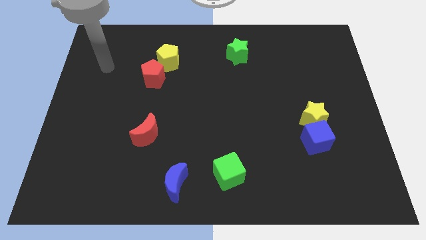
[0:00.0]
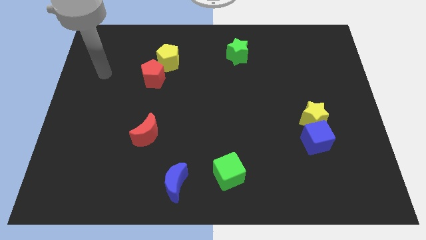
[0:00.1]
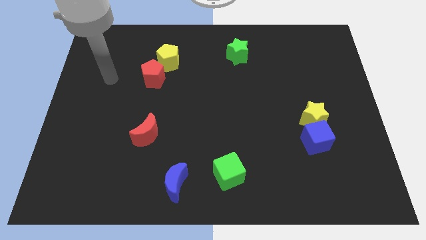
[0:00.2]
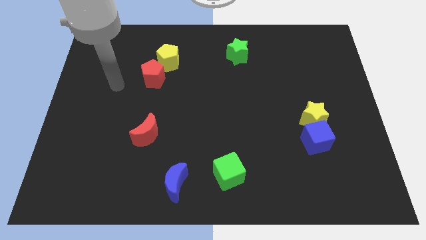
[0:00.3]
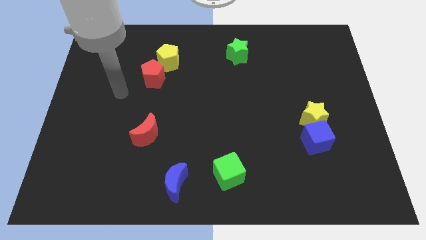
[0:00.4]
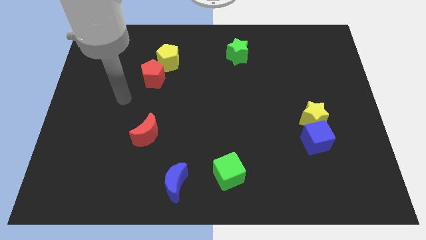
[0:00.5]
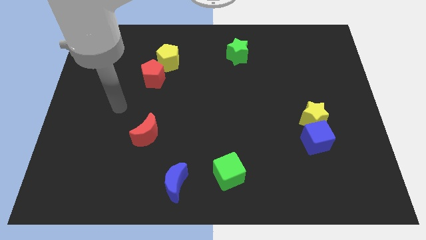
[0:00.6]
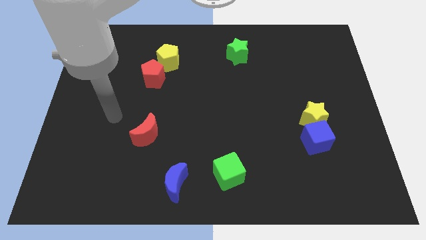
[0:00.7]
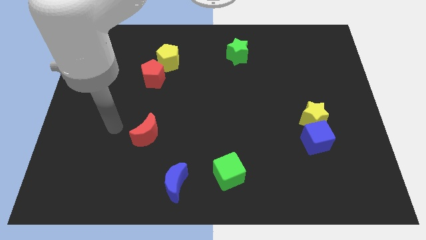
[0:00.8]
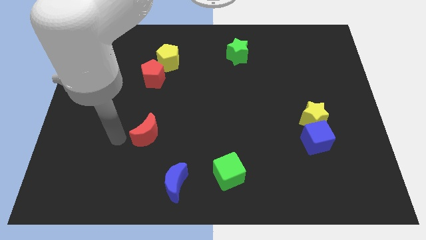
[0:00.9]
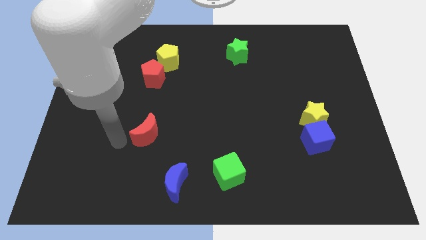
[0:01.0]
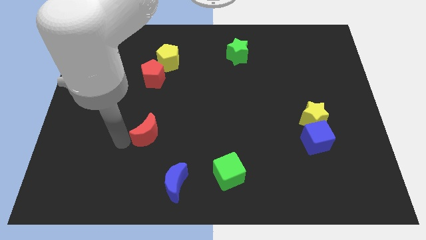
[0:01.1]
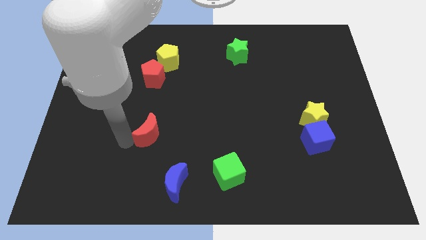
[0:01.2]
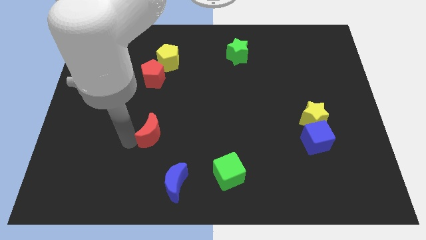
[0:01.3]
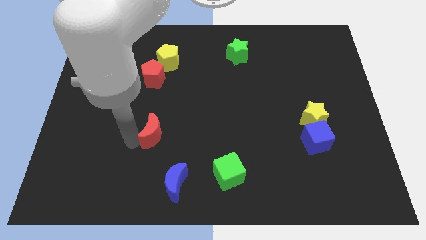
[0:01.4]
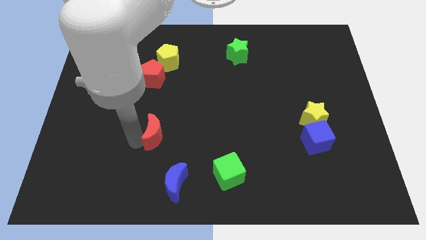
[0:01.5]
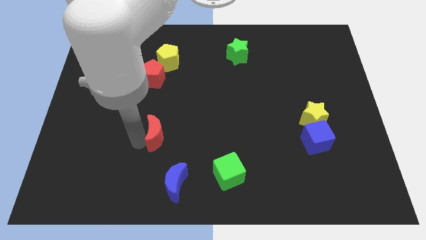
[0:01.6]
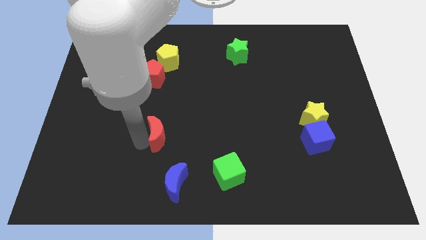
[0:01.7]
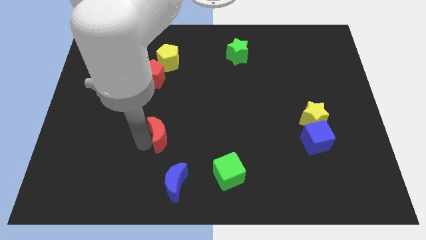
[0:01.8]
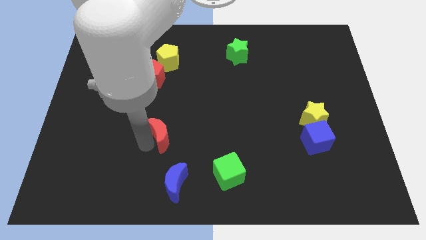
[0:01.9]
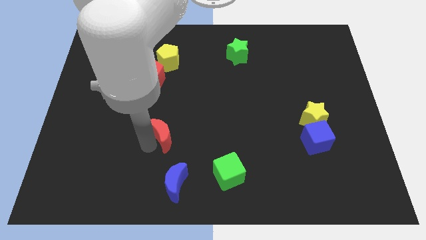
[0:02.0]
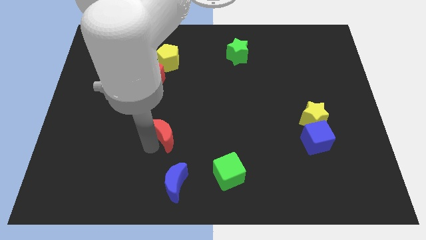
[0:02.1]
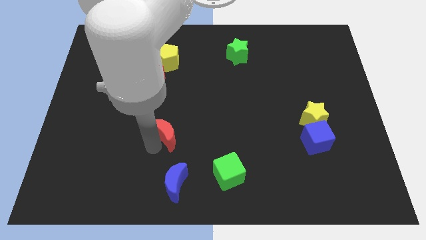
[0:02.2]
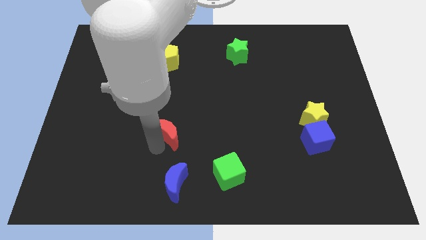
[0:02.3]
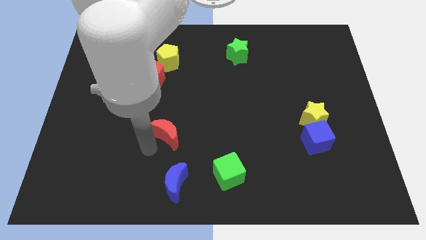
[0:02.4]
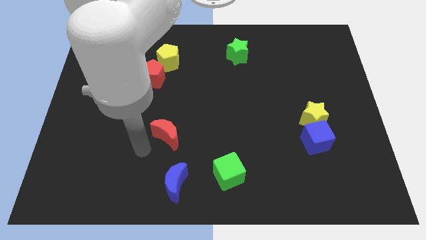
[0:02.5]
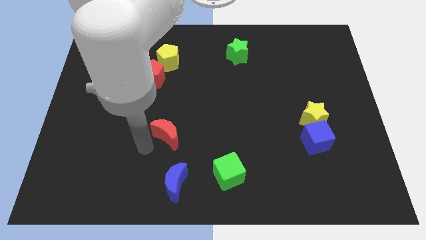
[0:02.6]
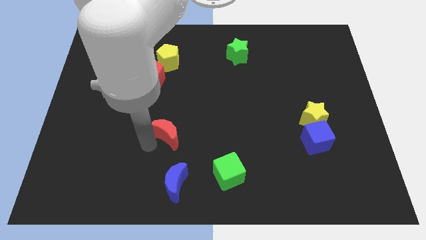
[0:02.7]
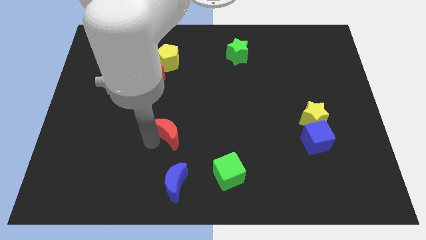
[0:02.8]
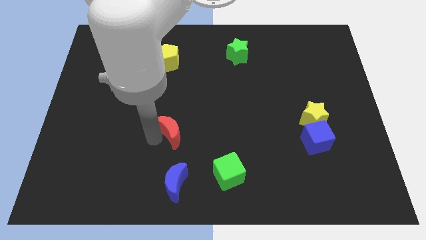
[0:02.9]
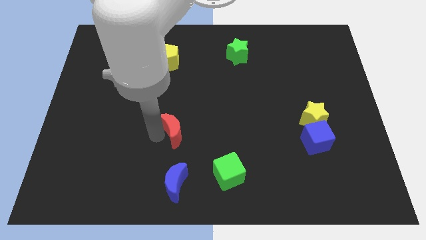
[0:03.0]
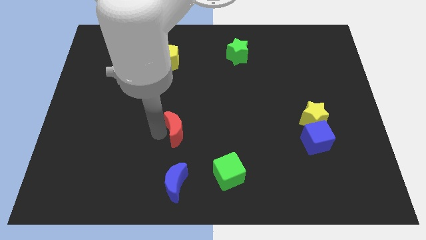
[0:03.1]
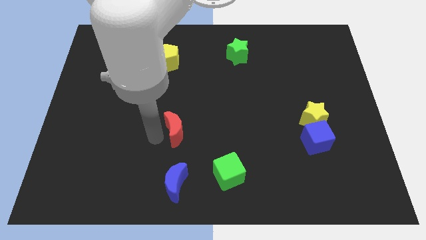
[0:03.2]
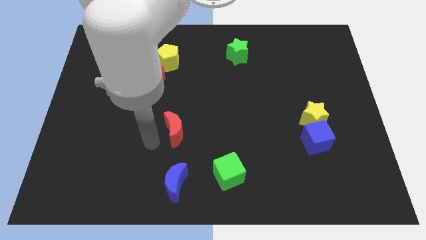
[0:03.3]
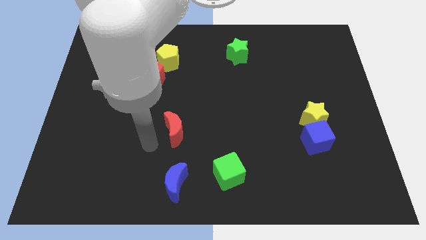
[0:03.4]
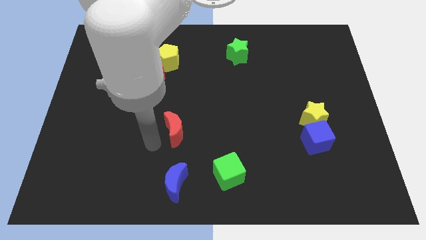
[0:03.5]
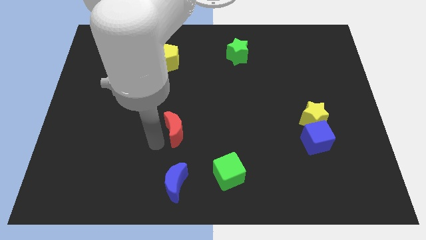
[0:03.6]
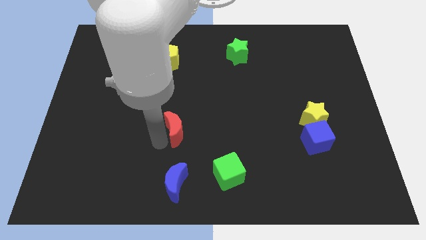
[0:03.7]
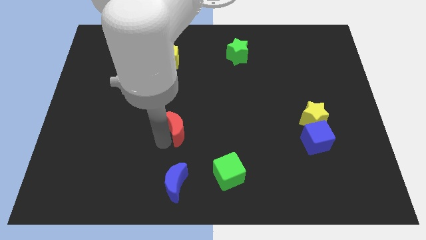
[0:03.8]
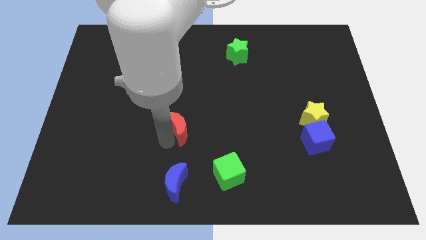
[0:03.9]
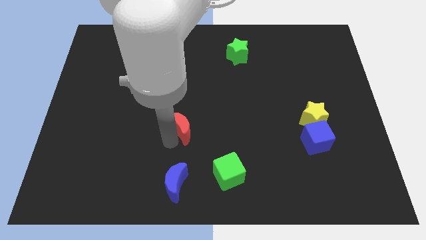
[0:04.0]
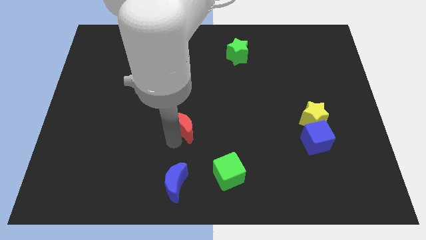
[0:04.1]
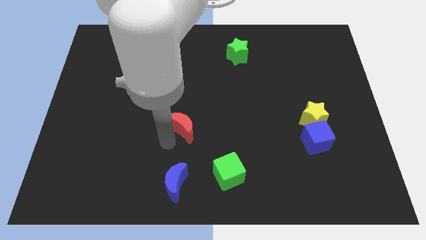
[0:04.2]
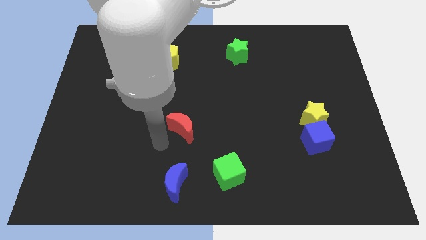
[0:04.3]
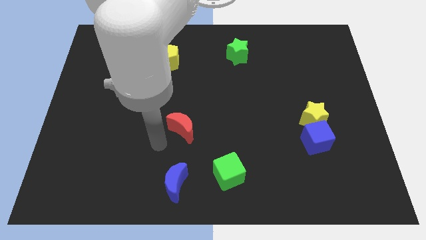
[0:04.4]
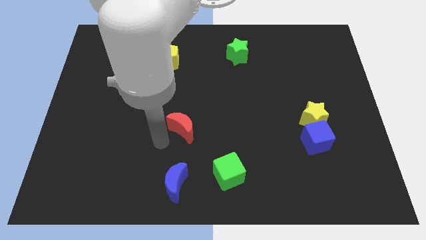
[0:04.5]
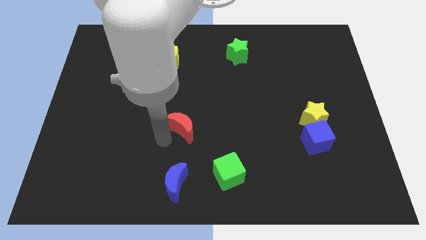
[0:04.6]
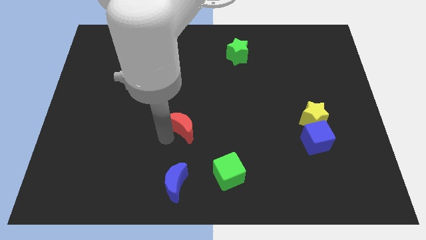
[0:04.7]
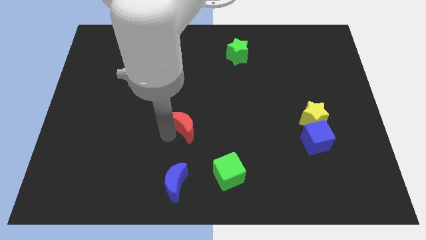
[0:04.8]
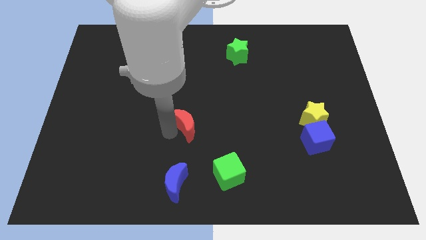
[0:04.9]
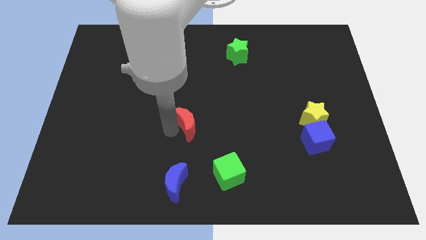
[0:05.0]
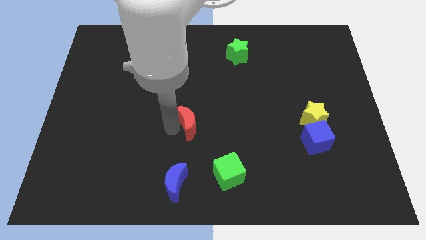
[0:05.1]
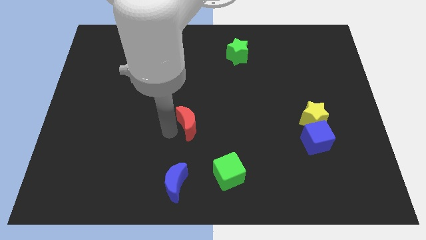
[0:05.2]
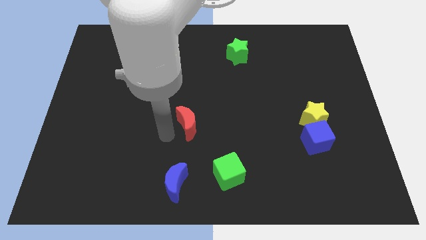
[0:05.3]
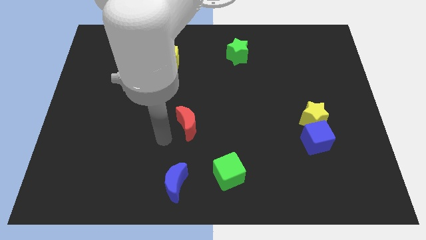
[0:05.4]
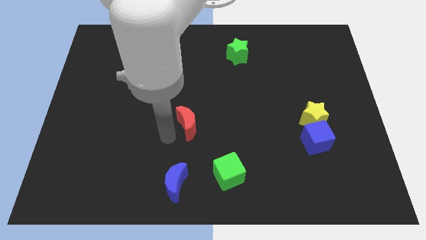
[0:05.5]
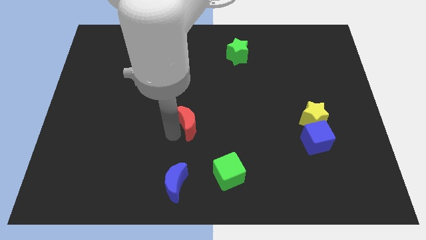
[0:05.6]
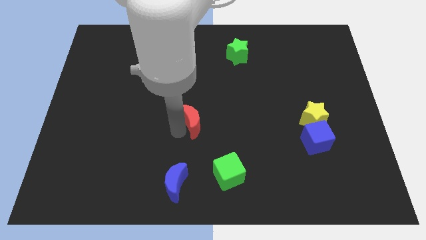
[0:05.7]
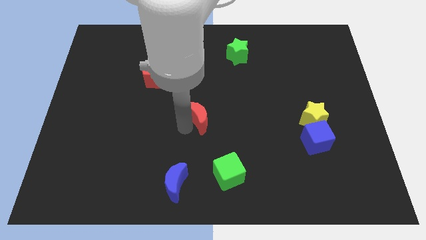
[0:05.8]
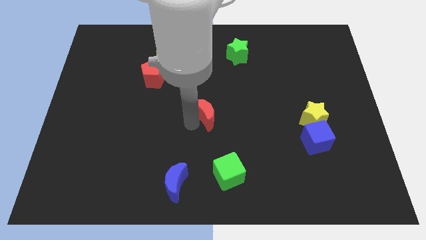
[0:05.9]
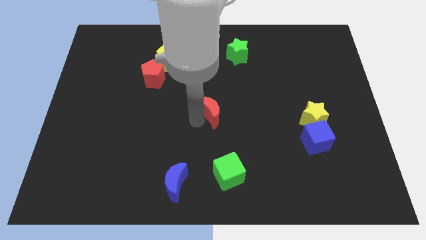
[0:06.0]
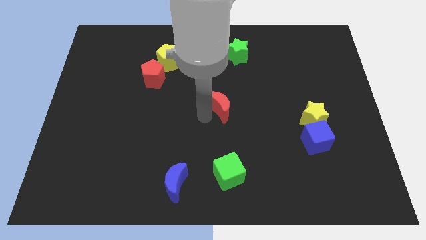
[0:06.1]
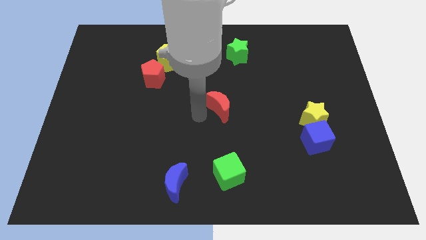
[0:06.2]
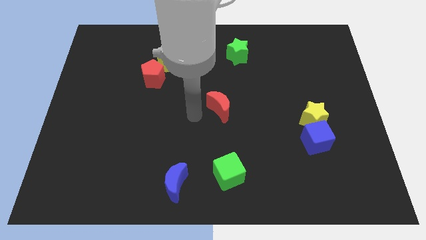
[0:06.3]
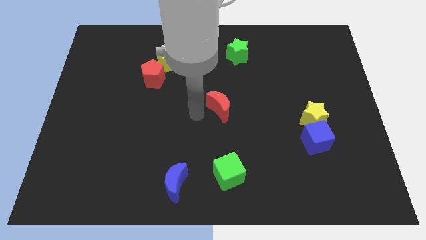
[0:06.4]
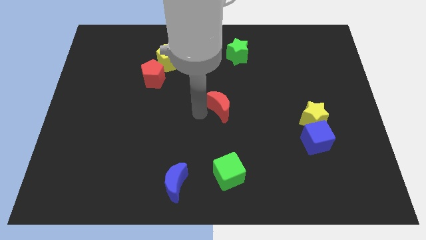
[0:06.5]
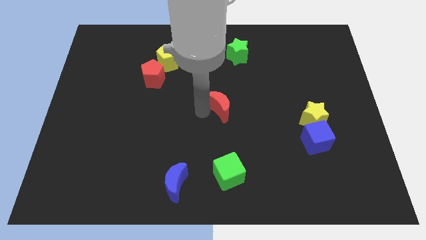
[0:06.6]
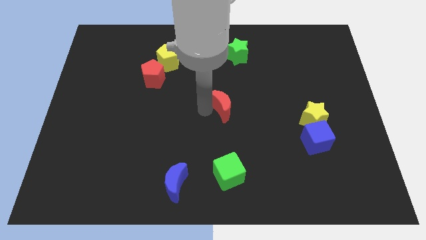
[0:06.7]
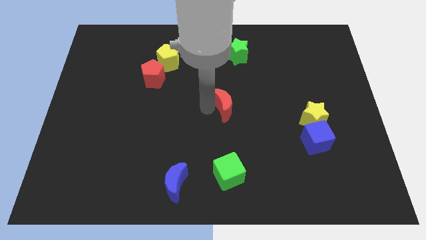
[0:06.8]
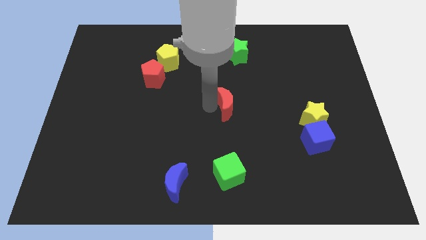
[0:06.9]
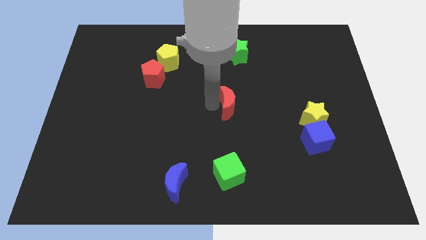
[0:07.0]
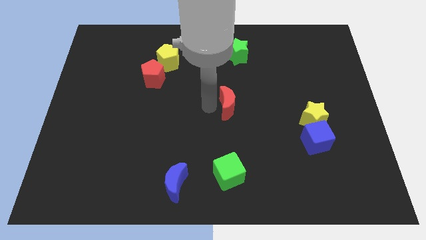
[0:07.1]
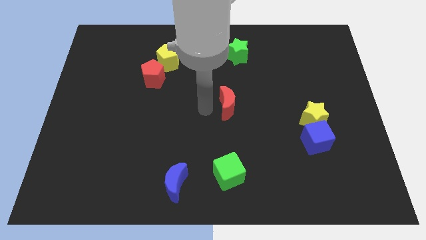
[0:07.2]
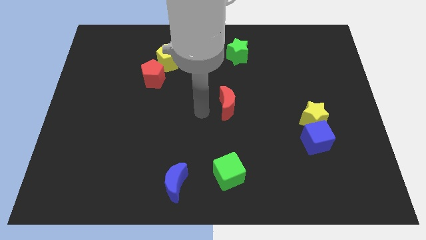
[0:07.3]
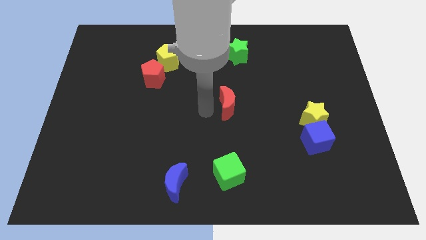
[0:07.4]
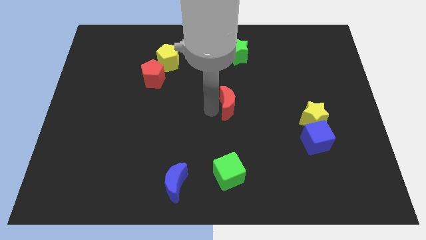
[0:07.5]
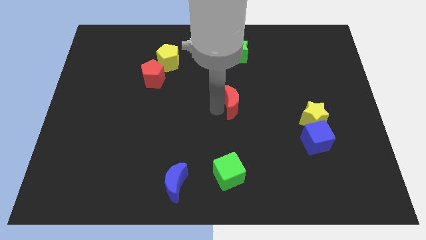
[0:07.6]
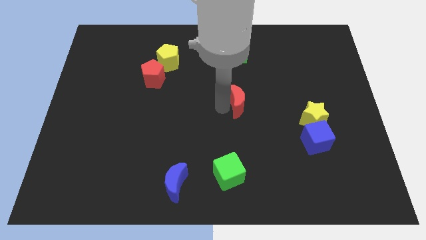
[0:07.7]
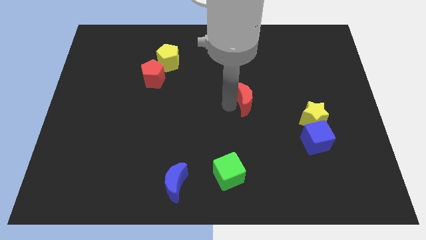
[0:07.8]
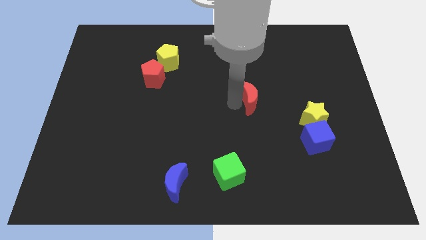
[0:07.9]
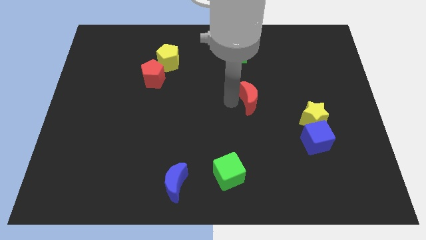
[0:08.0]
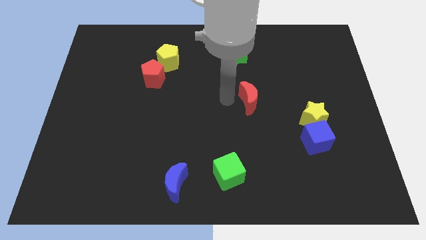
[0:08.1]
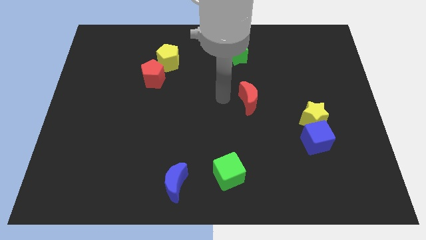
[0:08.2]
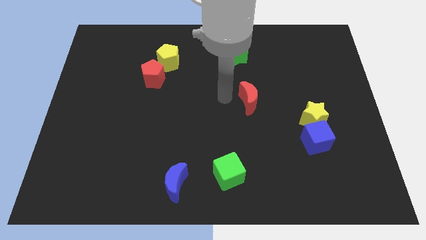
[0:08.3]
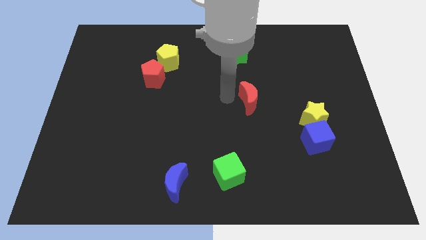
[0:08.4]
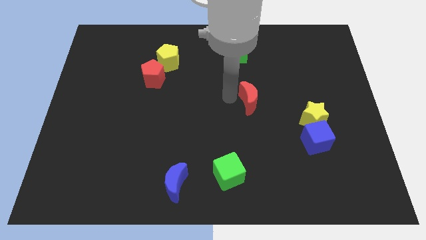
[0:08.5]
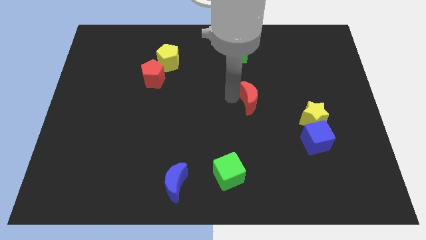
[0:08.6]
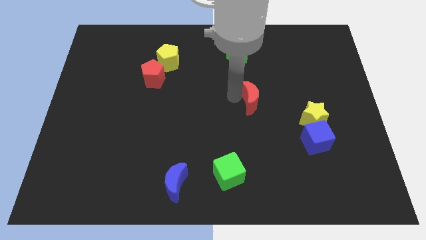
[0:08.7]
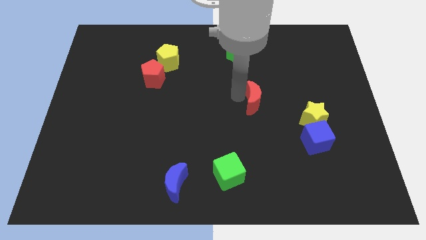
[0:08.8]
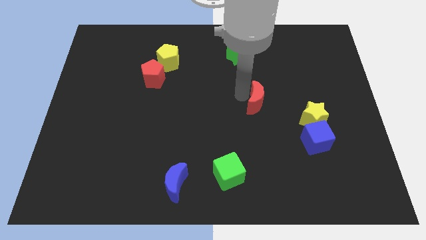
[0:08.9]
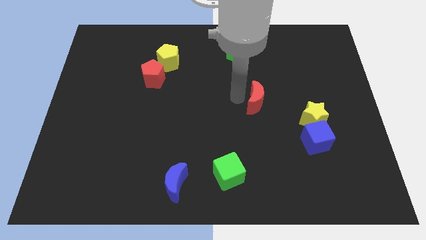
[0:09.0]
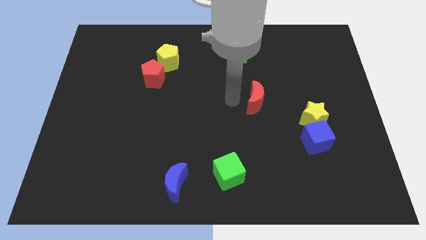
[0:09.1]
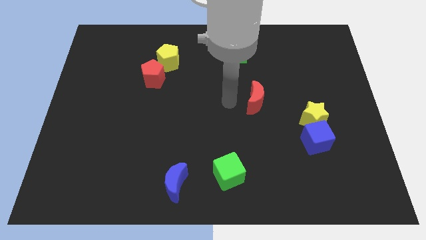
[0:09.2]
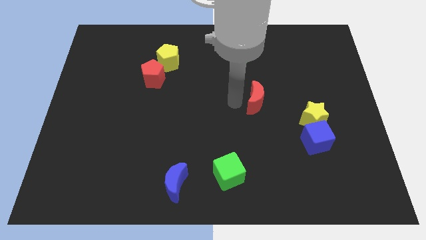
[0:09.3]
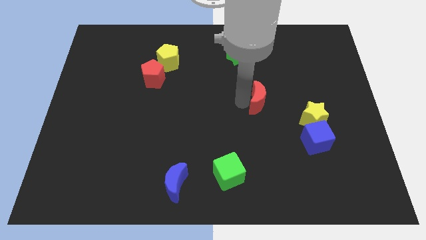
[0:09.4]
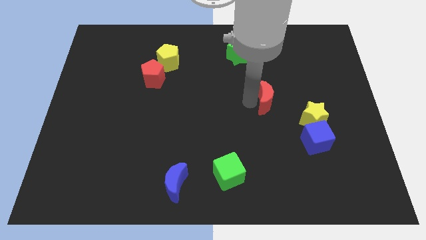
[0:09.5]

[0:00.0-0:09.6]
put the red moon to the top left of the yellow star
